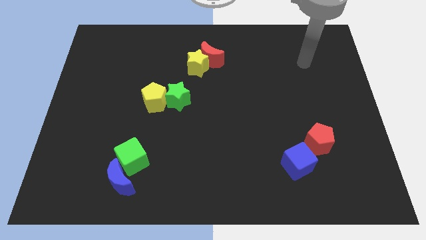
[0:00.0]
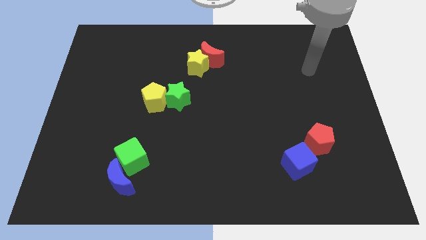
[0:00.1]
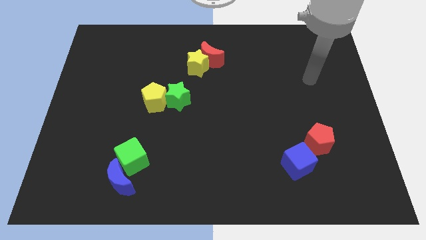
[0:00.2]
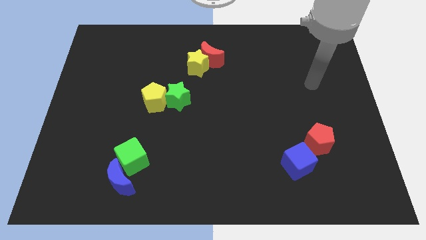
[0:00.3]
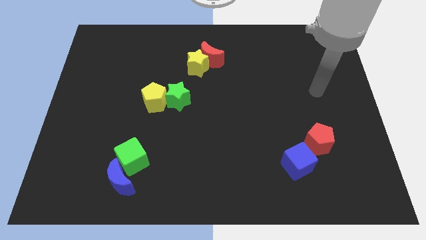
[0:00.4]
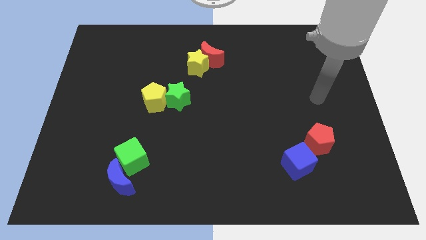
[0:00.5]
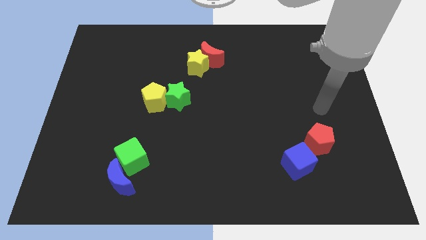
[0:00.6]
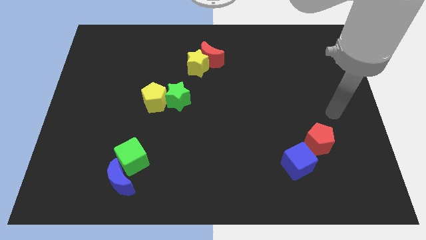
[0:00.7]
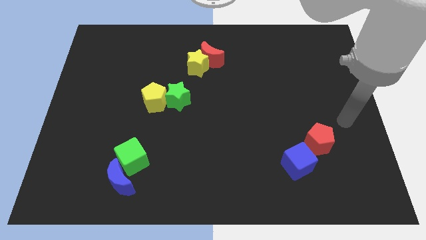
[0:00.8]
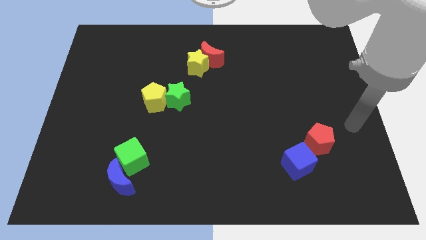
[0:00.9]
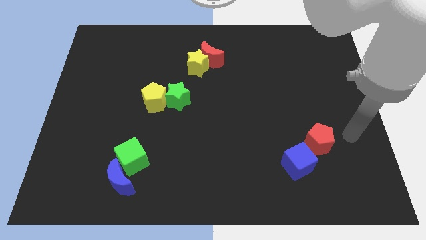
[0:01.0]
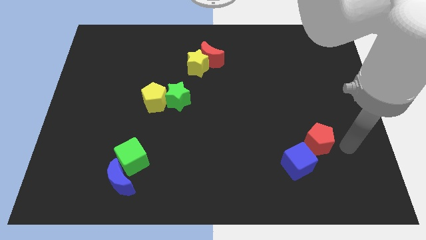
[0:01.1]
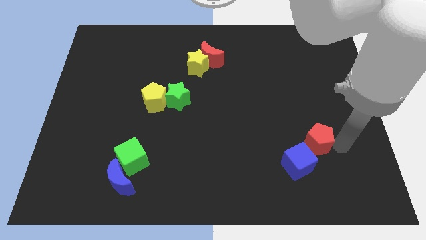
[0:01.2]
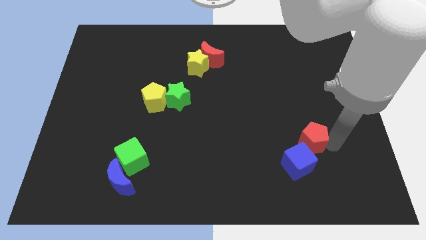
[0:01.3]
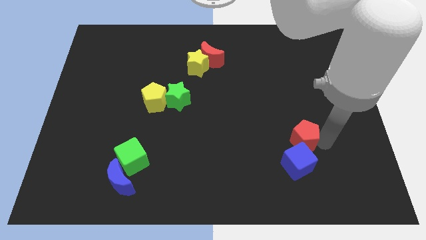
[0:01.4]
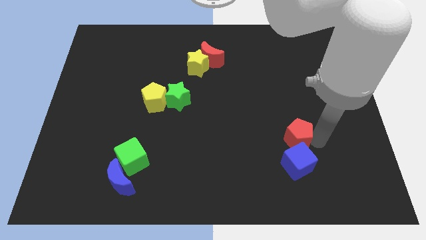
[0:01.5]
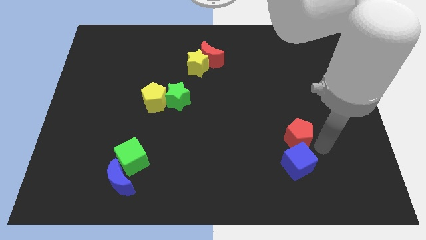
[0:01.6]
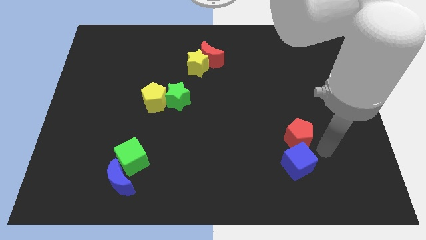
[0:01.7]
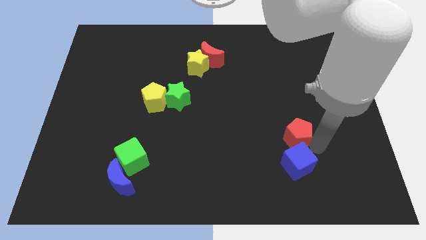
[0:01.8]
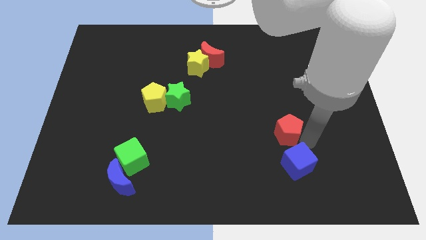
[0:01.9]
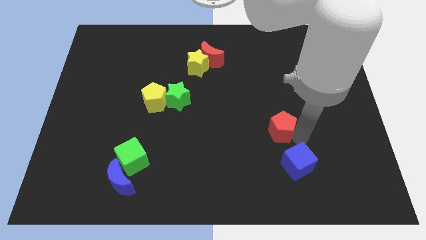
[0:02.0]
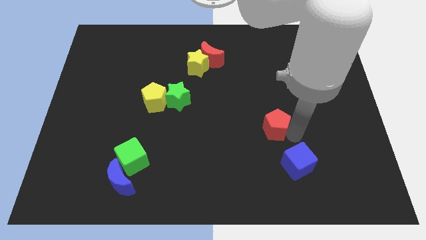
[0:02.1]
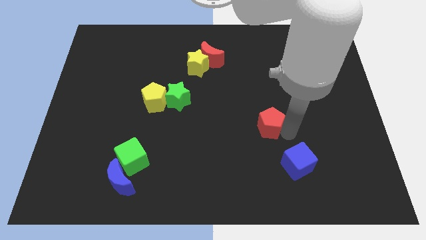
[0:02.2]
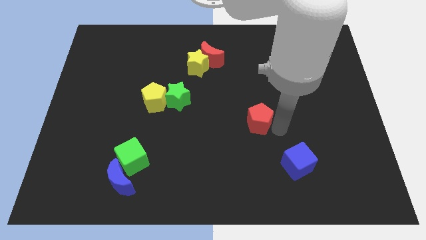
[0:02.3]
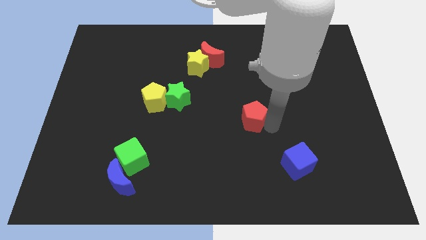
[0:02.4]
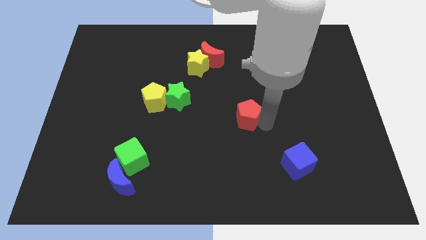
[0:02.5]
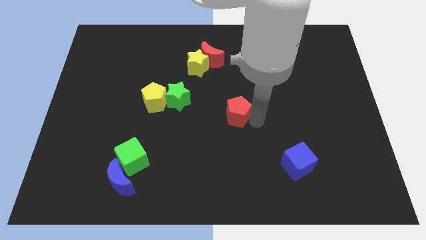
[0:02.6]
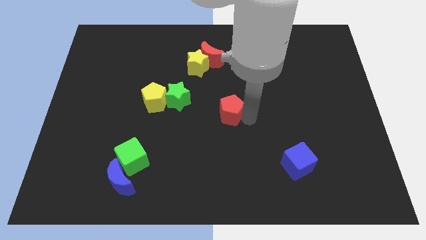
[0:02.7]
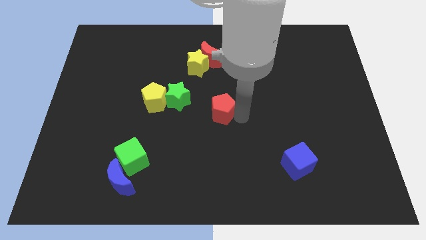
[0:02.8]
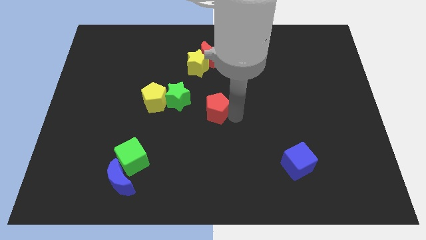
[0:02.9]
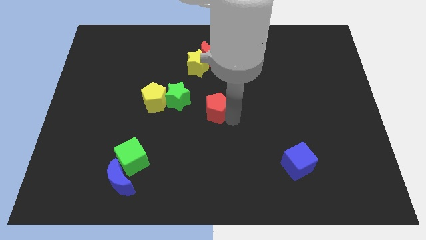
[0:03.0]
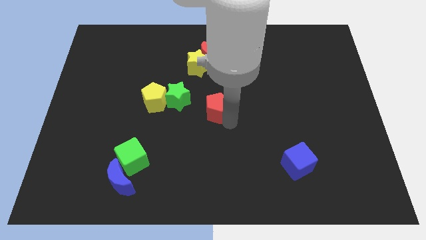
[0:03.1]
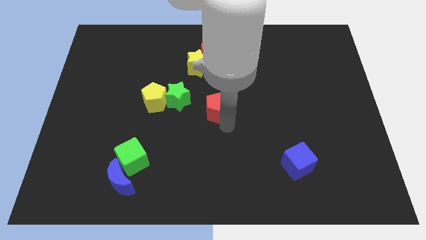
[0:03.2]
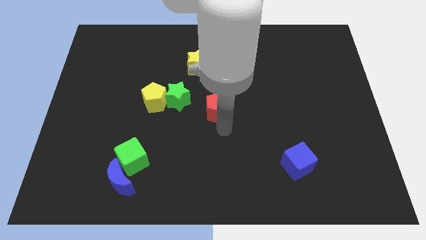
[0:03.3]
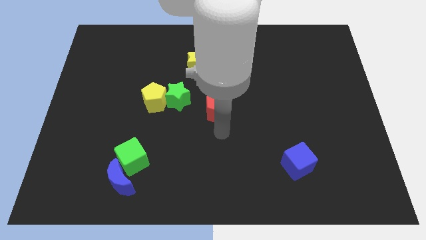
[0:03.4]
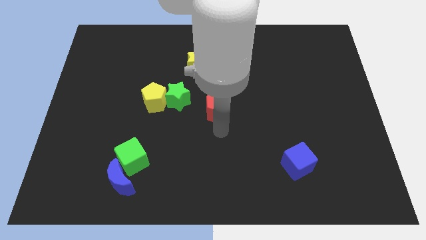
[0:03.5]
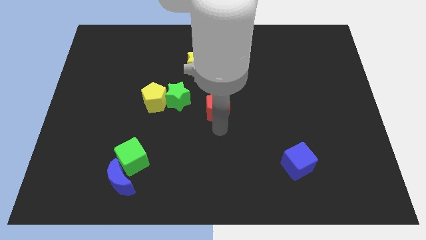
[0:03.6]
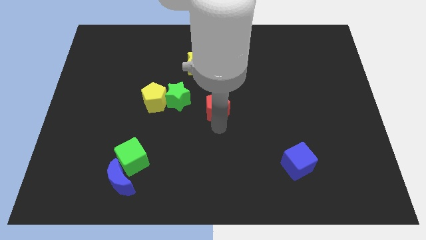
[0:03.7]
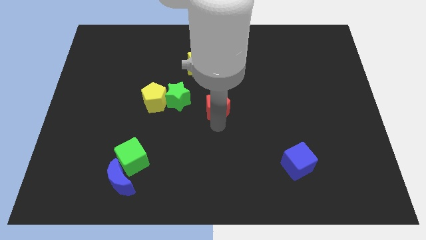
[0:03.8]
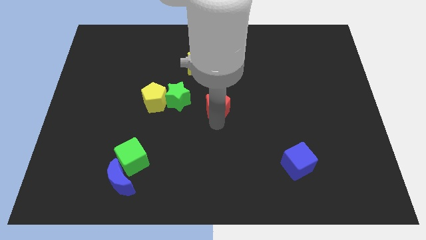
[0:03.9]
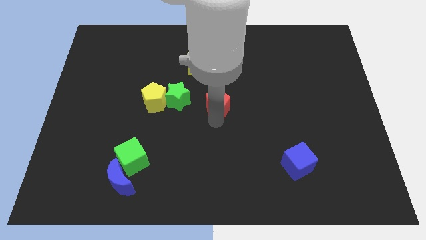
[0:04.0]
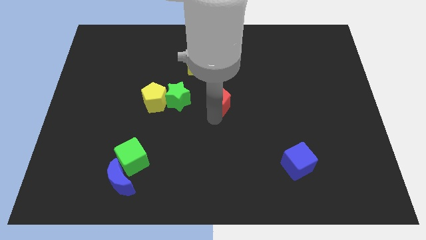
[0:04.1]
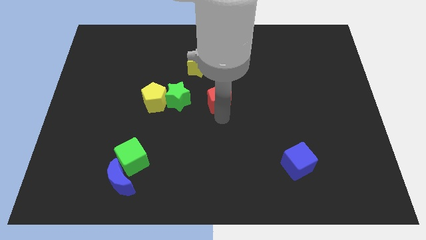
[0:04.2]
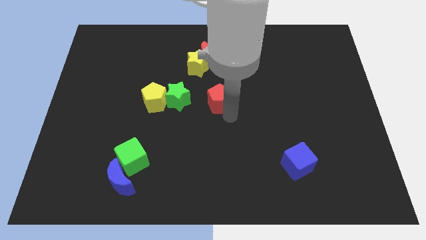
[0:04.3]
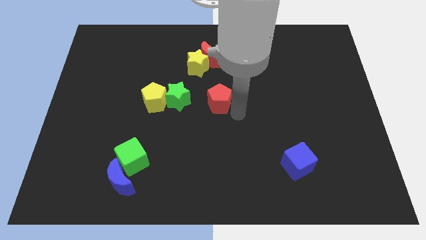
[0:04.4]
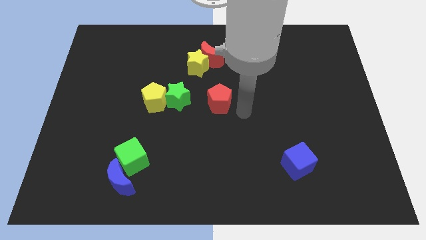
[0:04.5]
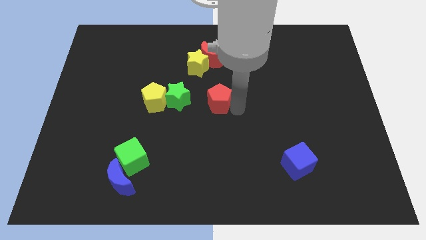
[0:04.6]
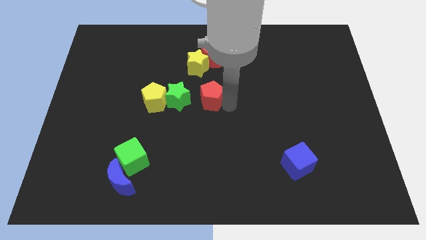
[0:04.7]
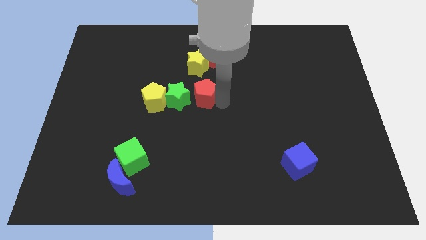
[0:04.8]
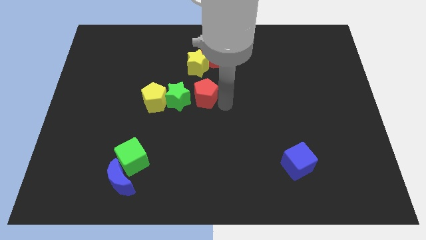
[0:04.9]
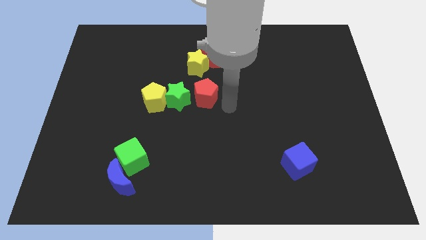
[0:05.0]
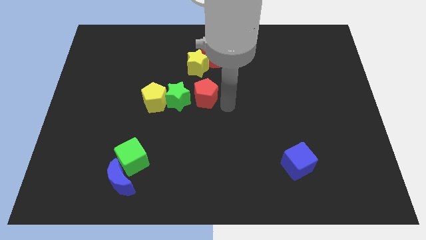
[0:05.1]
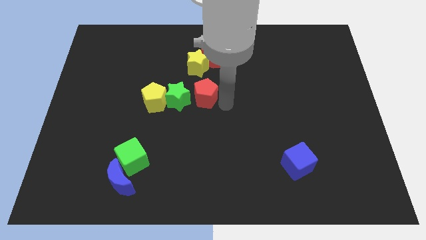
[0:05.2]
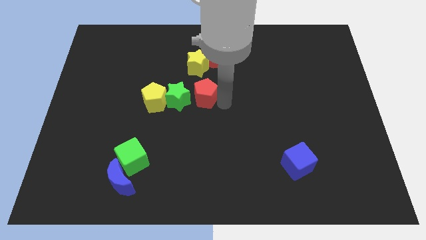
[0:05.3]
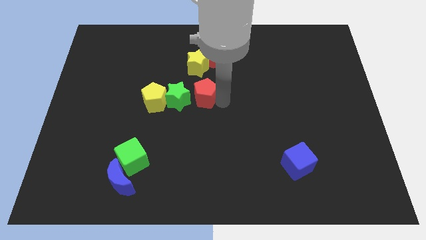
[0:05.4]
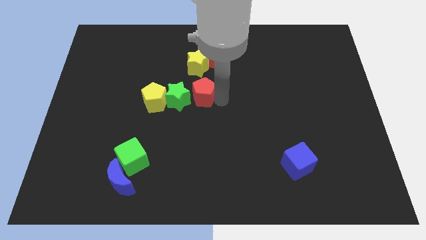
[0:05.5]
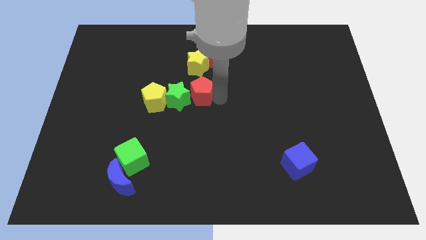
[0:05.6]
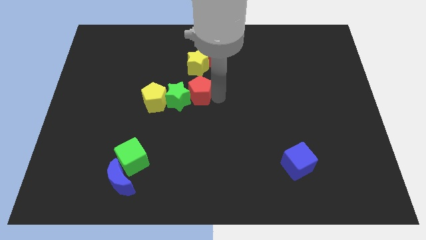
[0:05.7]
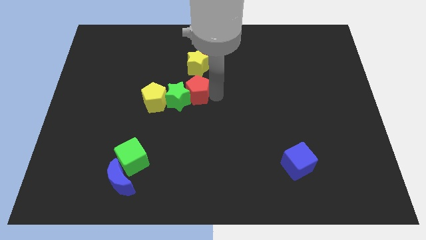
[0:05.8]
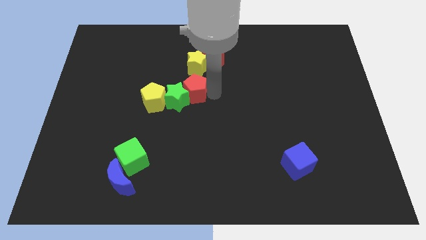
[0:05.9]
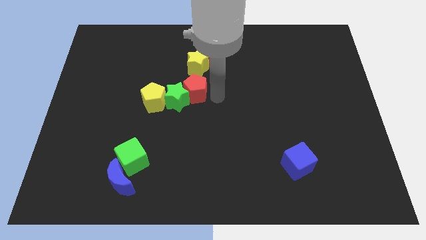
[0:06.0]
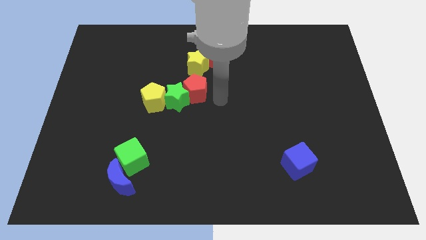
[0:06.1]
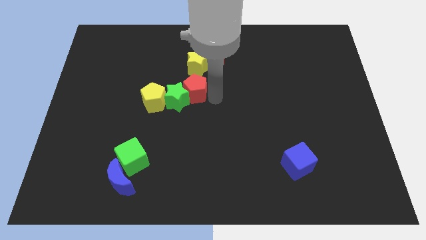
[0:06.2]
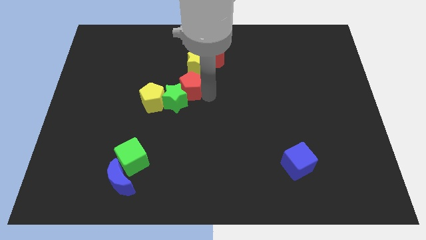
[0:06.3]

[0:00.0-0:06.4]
push the red pentagon to the top right side of the yellow pentagon
